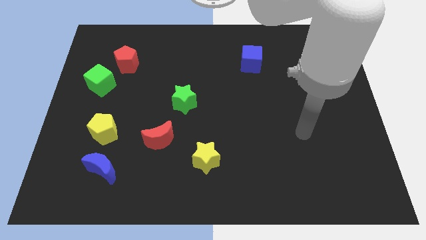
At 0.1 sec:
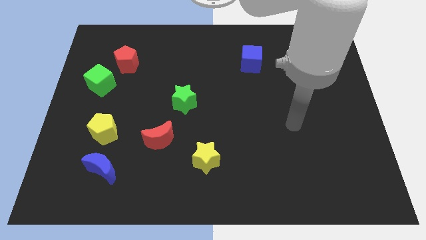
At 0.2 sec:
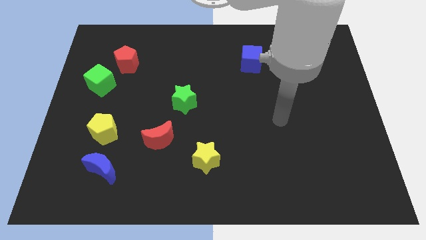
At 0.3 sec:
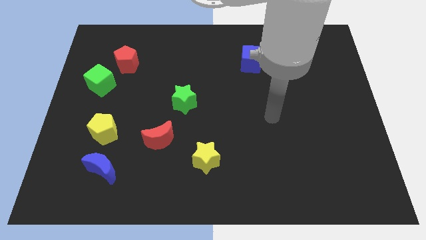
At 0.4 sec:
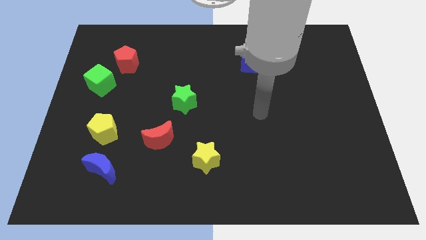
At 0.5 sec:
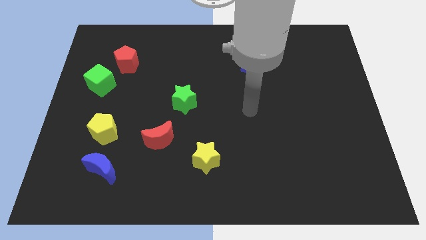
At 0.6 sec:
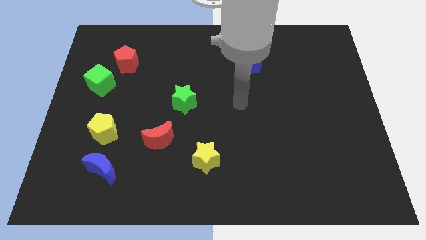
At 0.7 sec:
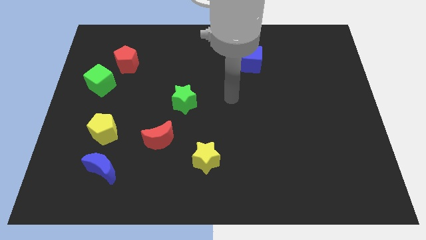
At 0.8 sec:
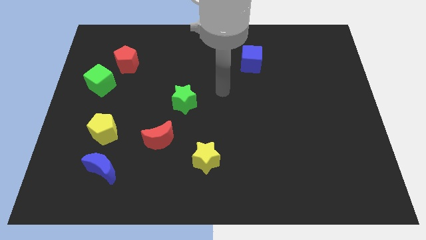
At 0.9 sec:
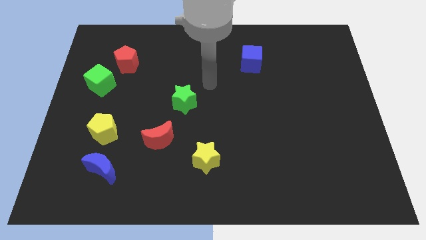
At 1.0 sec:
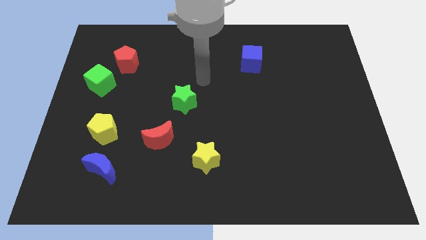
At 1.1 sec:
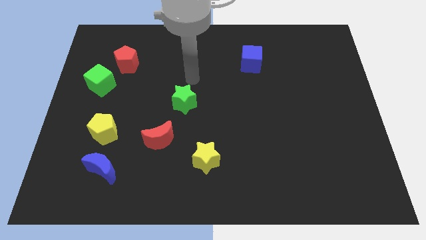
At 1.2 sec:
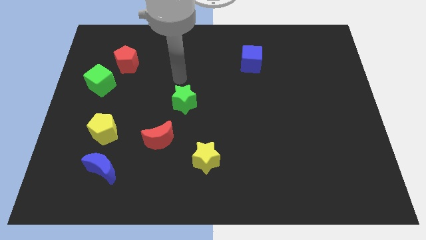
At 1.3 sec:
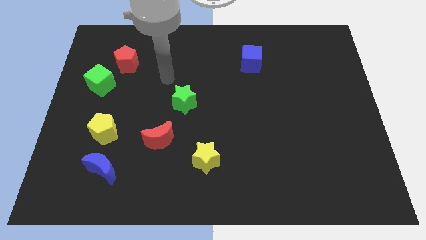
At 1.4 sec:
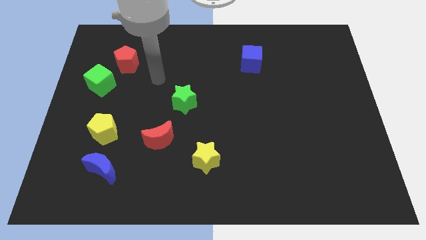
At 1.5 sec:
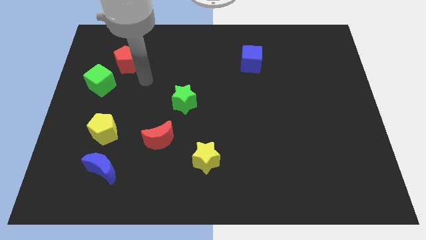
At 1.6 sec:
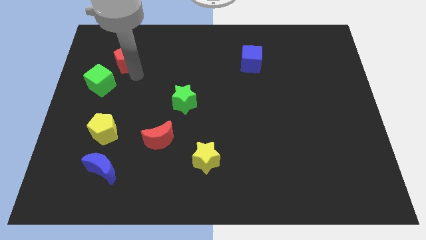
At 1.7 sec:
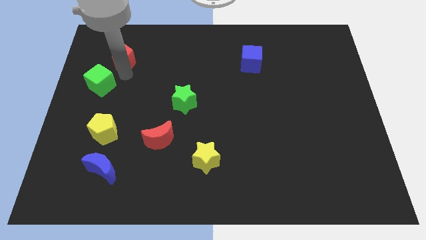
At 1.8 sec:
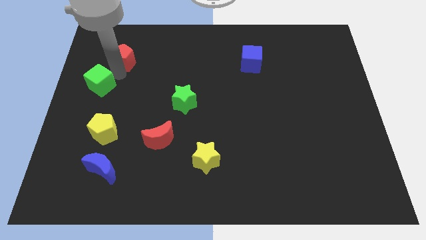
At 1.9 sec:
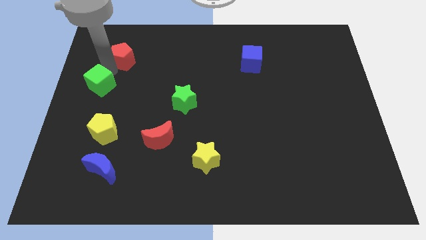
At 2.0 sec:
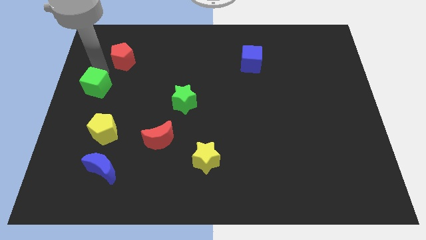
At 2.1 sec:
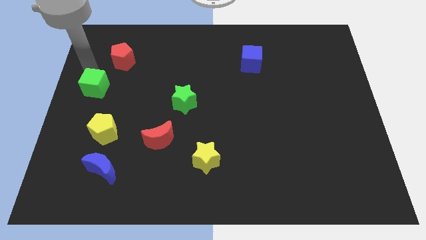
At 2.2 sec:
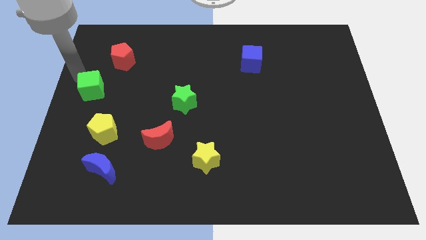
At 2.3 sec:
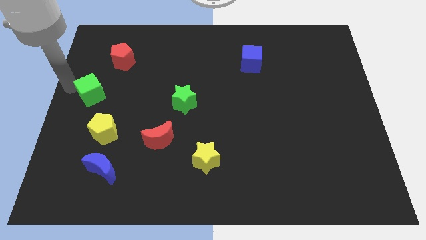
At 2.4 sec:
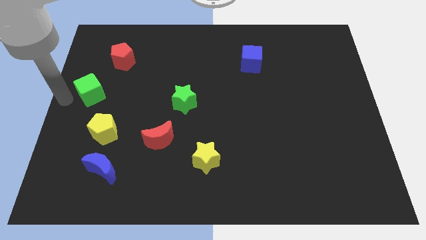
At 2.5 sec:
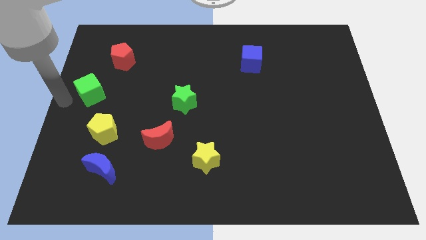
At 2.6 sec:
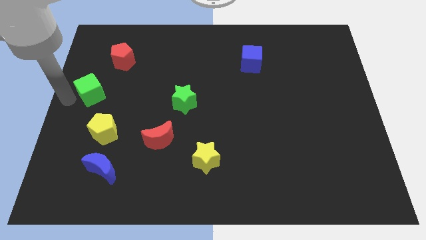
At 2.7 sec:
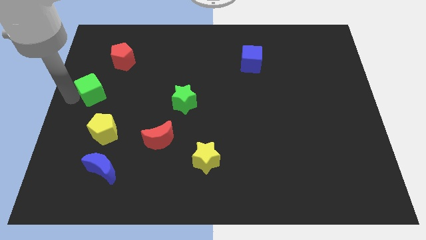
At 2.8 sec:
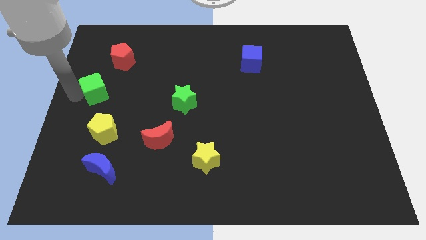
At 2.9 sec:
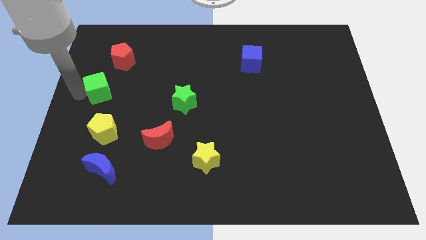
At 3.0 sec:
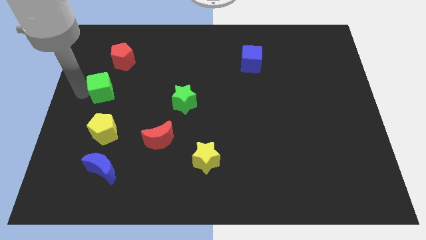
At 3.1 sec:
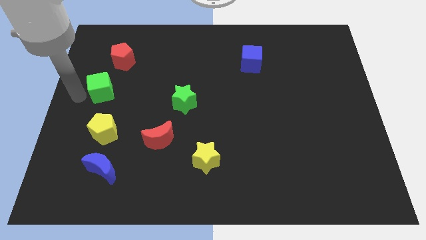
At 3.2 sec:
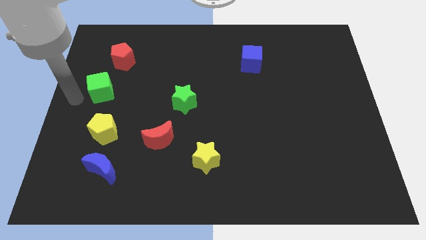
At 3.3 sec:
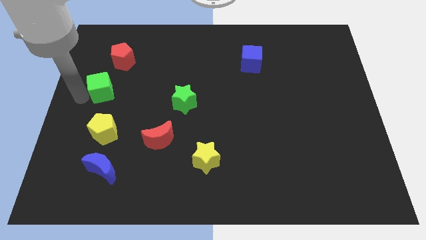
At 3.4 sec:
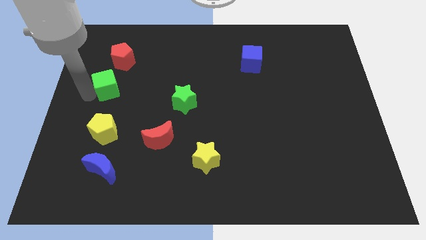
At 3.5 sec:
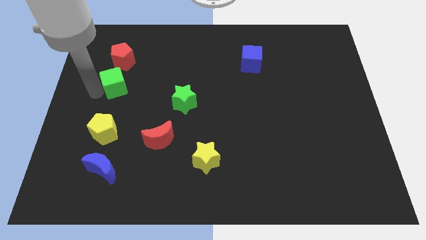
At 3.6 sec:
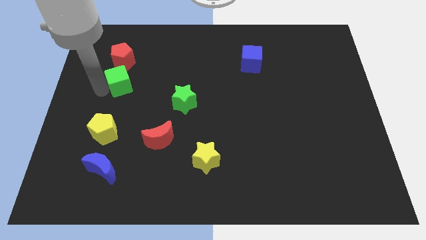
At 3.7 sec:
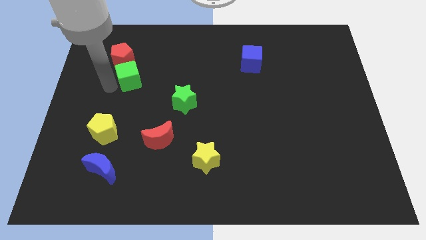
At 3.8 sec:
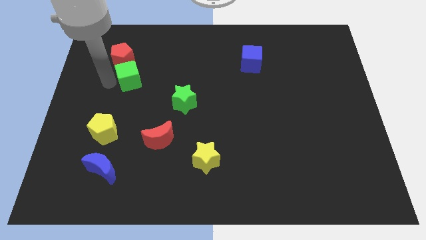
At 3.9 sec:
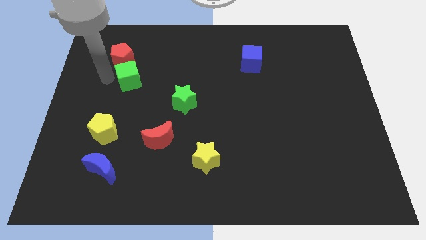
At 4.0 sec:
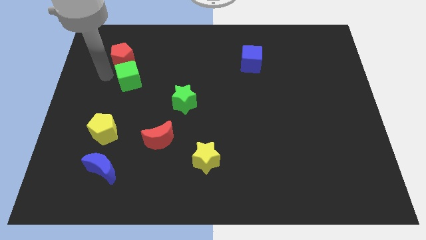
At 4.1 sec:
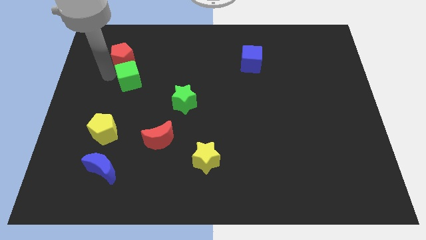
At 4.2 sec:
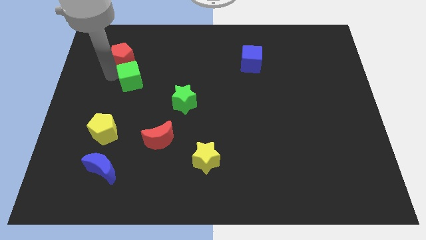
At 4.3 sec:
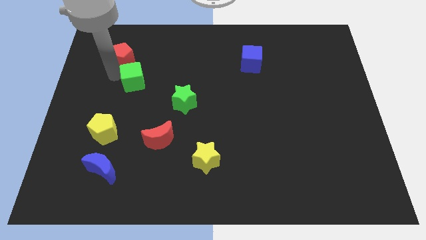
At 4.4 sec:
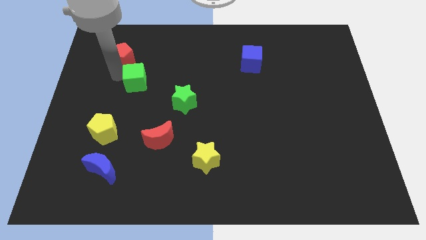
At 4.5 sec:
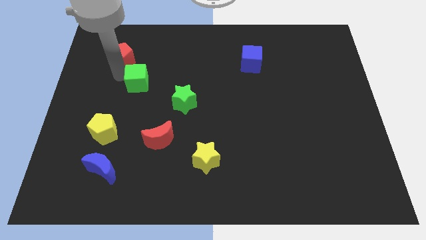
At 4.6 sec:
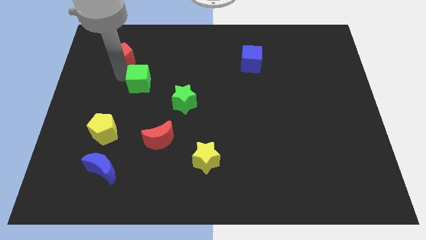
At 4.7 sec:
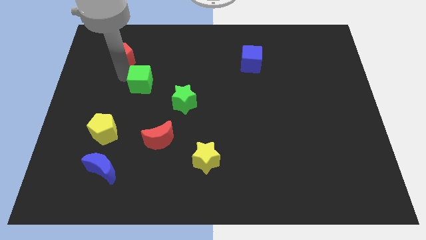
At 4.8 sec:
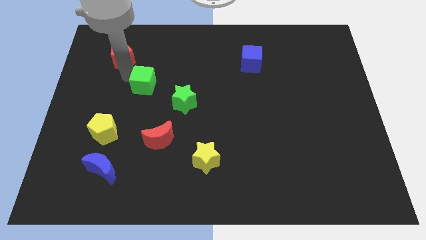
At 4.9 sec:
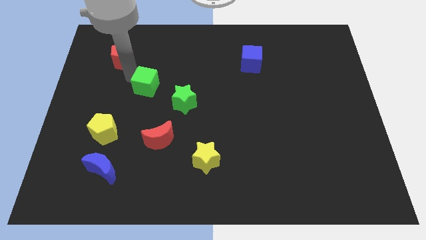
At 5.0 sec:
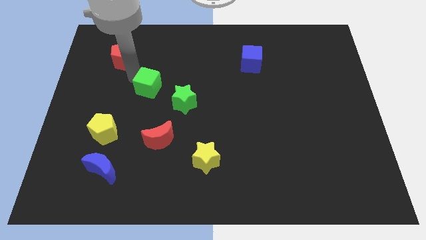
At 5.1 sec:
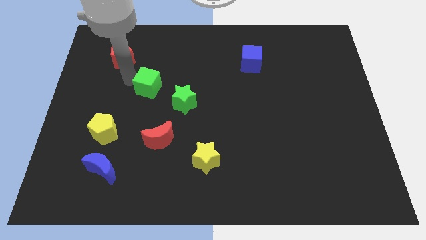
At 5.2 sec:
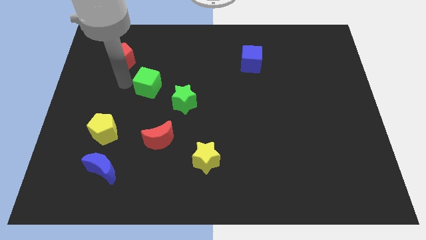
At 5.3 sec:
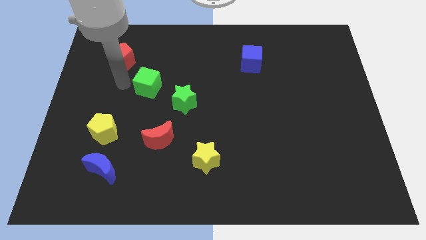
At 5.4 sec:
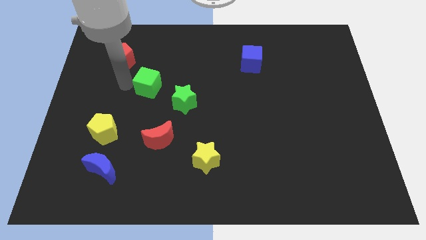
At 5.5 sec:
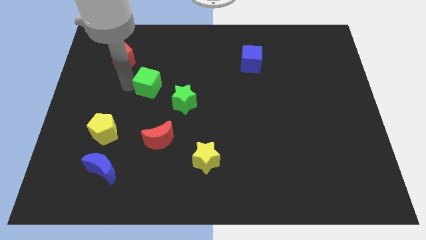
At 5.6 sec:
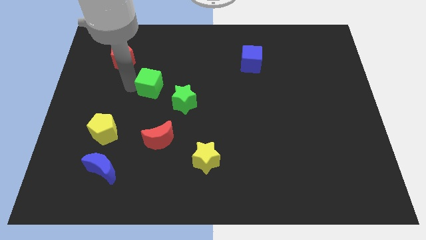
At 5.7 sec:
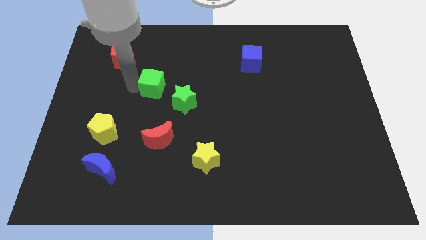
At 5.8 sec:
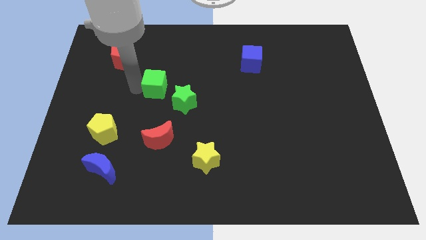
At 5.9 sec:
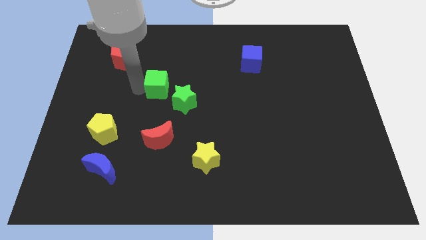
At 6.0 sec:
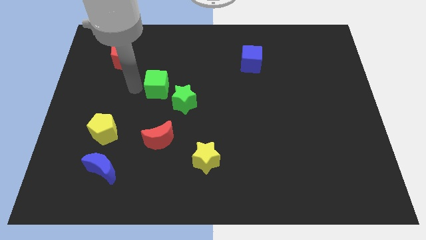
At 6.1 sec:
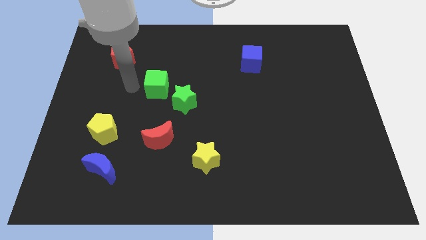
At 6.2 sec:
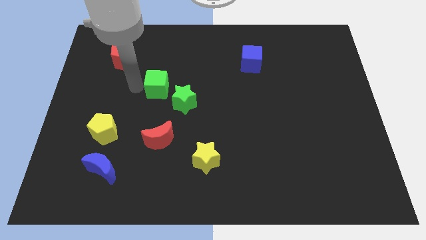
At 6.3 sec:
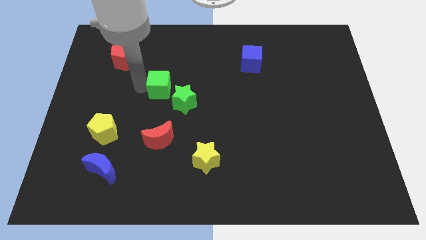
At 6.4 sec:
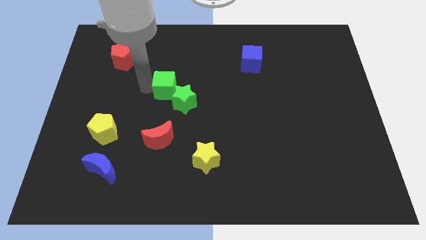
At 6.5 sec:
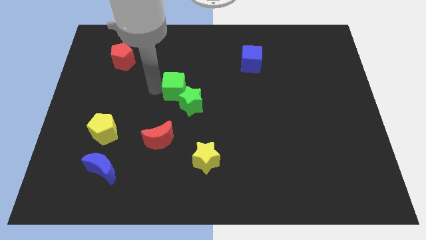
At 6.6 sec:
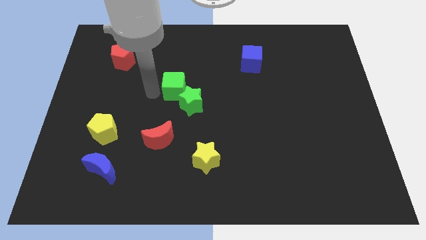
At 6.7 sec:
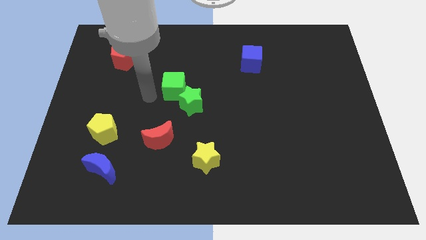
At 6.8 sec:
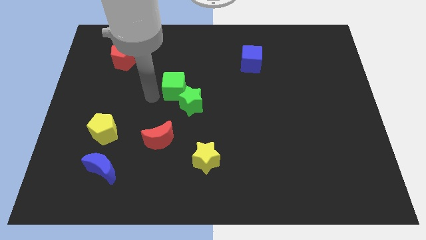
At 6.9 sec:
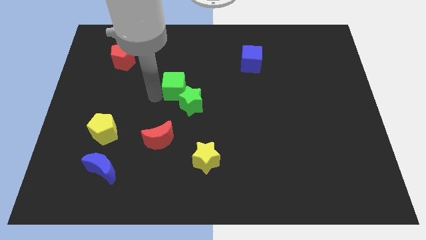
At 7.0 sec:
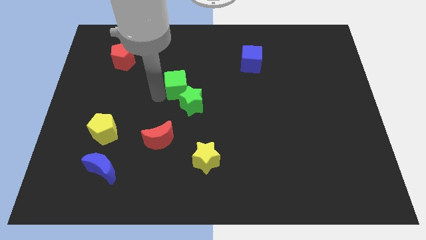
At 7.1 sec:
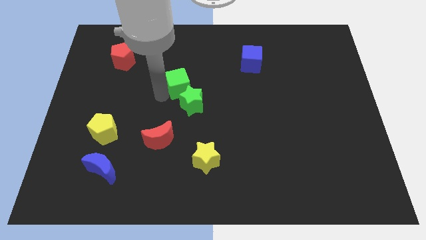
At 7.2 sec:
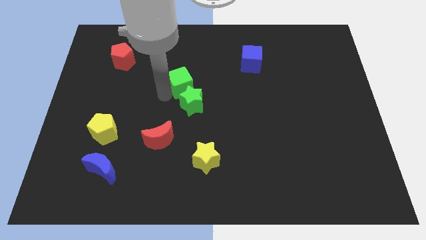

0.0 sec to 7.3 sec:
push the green cube right
